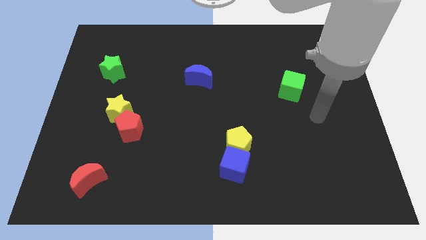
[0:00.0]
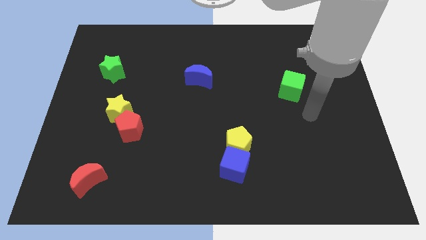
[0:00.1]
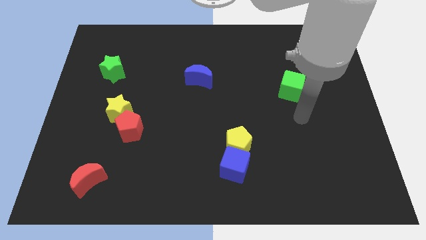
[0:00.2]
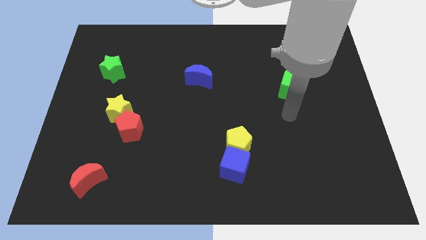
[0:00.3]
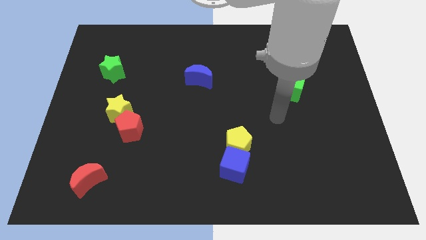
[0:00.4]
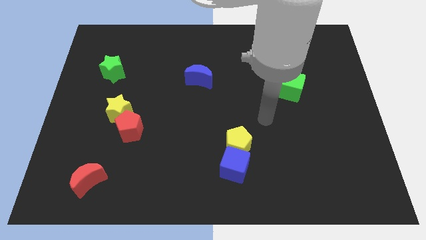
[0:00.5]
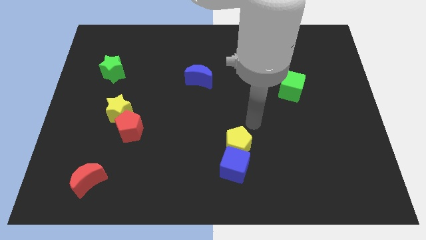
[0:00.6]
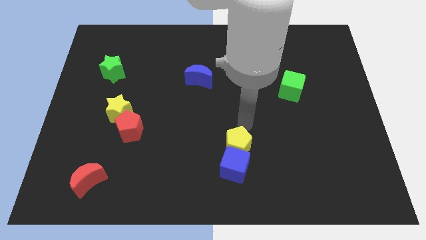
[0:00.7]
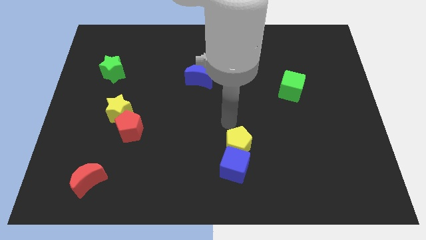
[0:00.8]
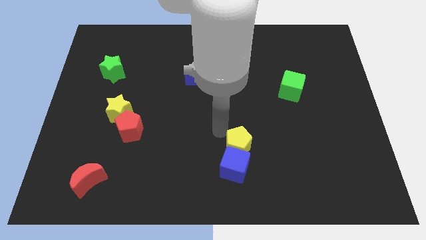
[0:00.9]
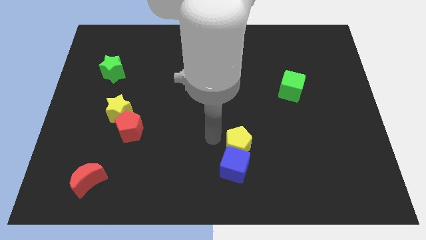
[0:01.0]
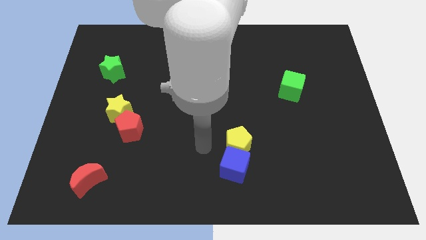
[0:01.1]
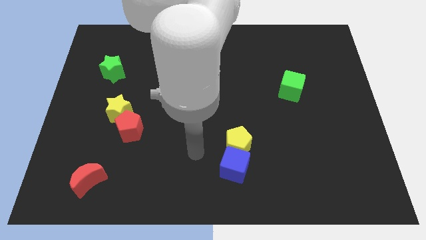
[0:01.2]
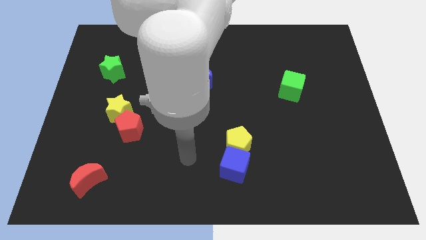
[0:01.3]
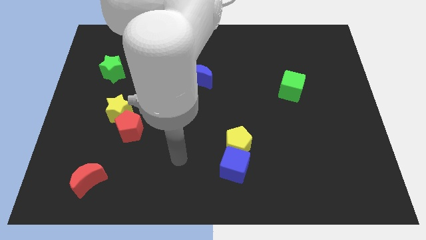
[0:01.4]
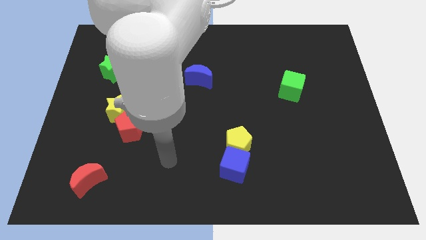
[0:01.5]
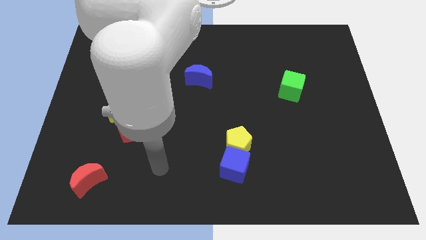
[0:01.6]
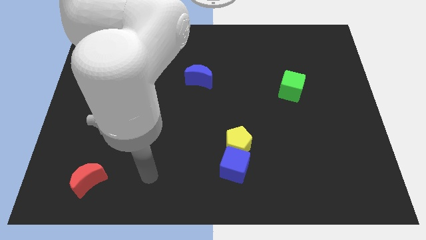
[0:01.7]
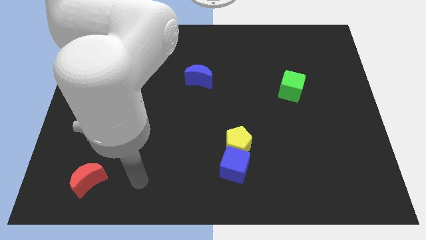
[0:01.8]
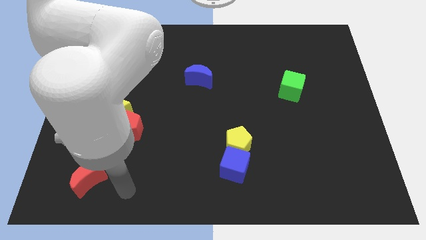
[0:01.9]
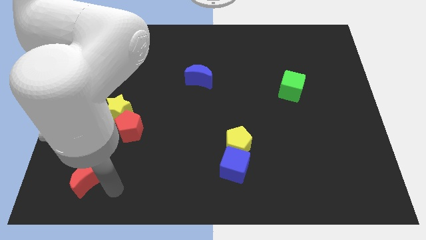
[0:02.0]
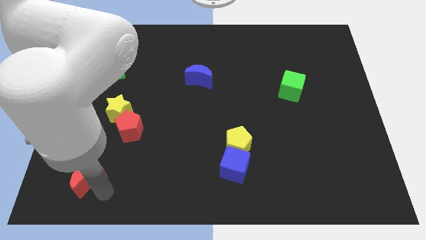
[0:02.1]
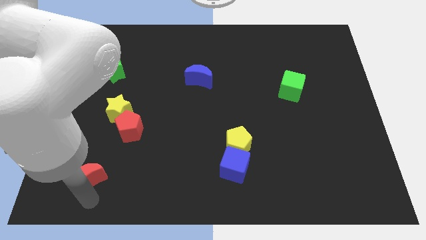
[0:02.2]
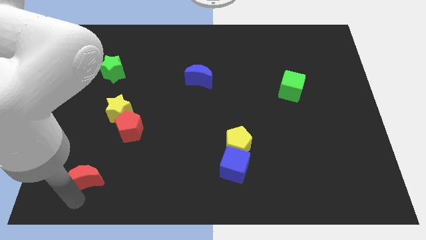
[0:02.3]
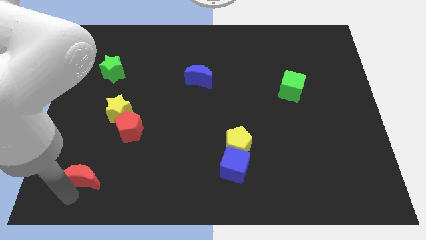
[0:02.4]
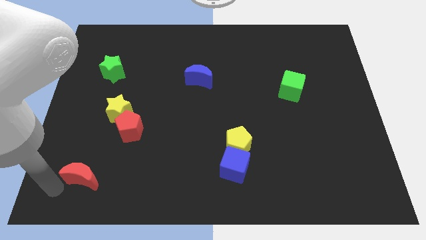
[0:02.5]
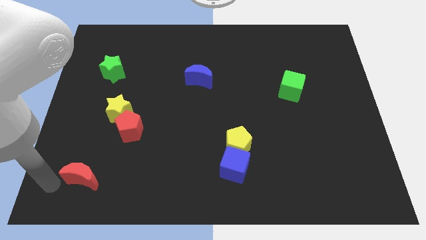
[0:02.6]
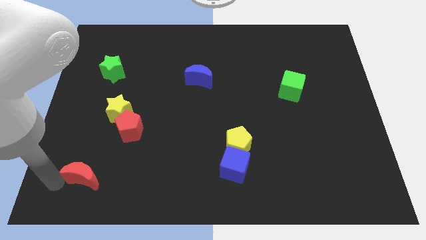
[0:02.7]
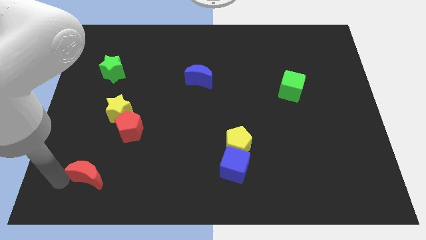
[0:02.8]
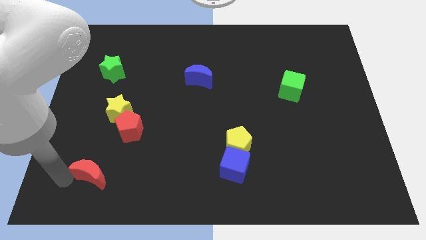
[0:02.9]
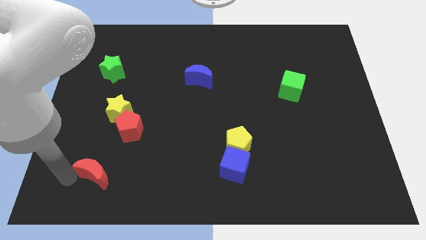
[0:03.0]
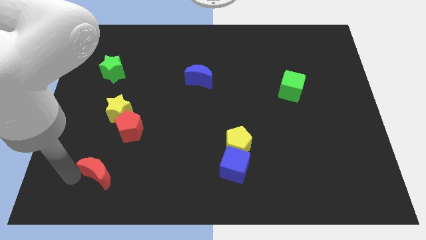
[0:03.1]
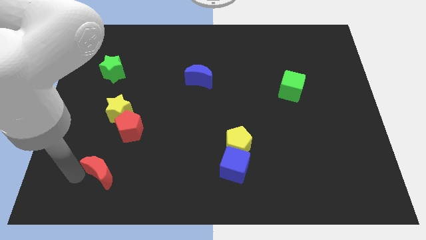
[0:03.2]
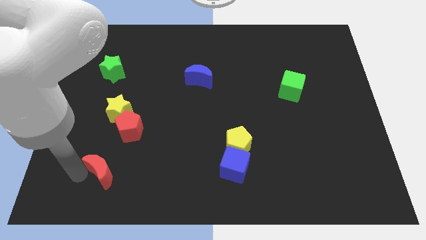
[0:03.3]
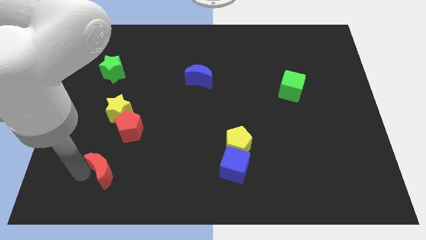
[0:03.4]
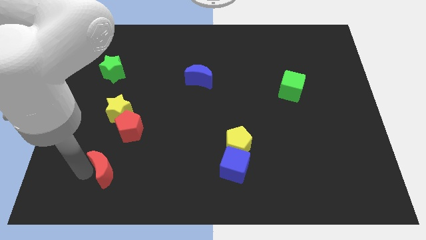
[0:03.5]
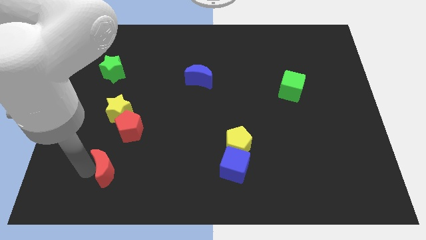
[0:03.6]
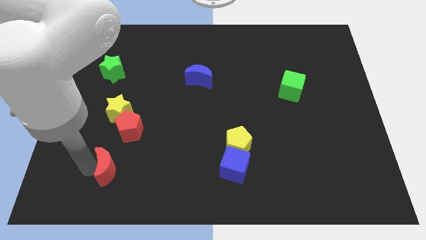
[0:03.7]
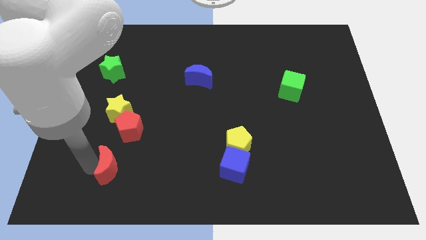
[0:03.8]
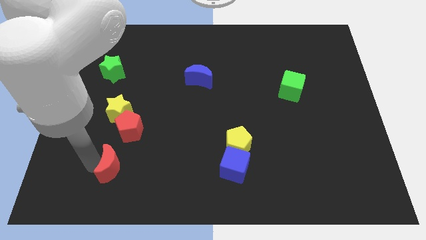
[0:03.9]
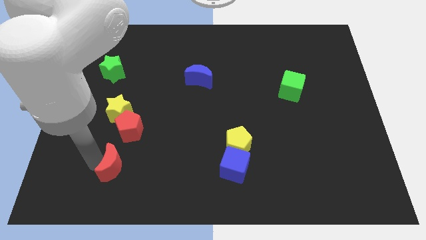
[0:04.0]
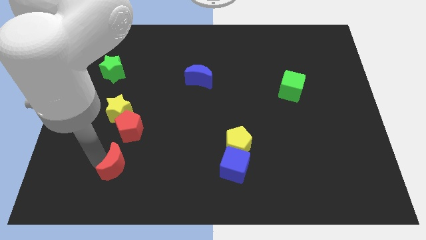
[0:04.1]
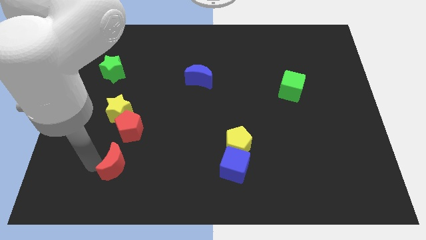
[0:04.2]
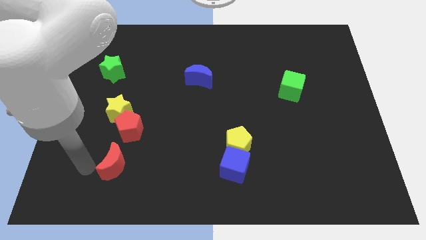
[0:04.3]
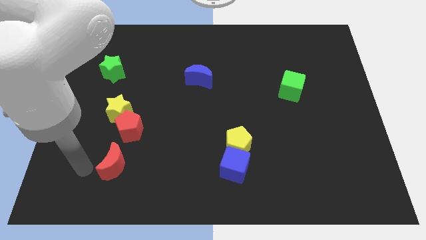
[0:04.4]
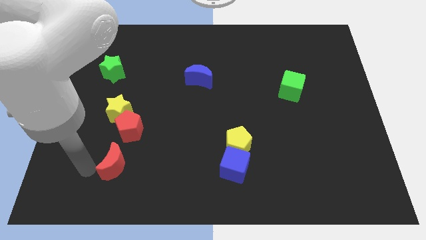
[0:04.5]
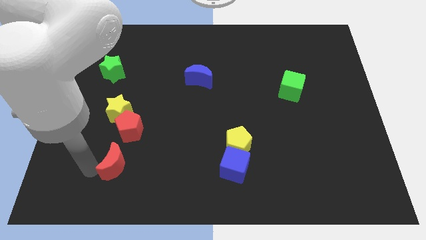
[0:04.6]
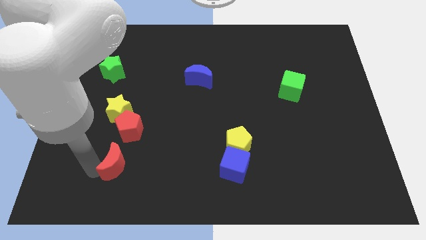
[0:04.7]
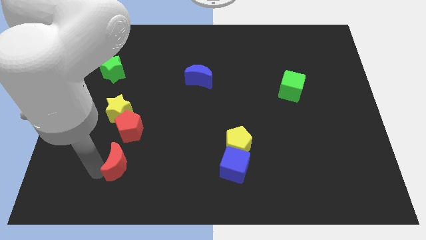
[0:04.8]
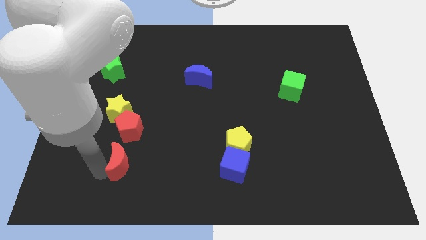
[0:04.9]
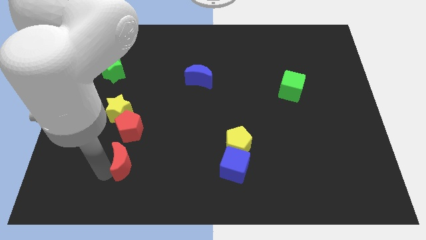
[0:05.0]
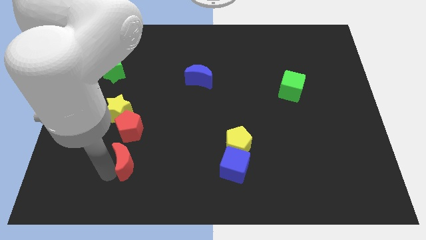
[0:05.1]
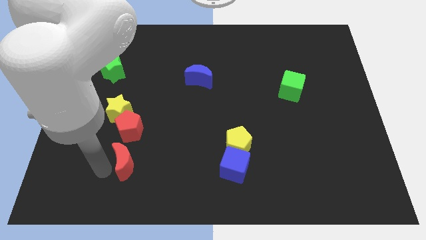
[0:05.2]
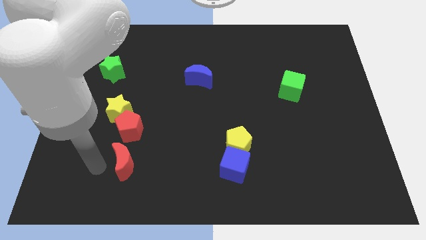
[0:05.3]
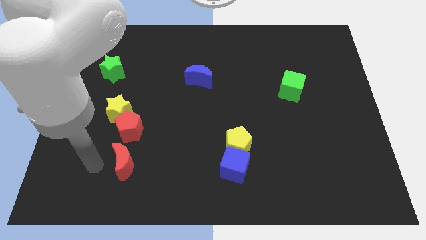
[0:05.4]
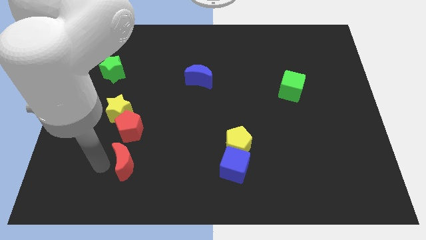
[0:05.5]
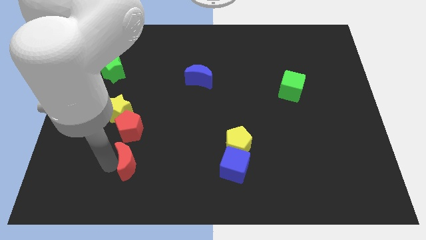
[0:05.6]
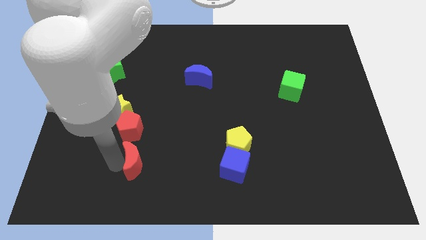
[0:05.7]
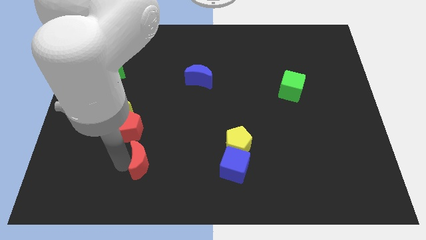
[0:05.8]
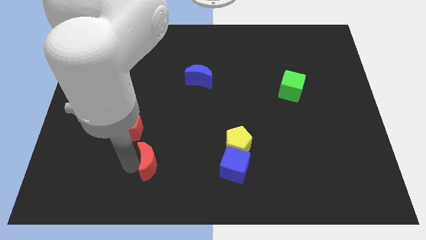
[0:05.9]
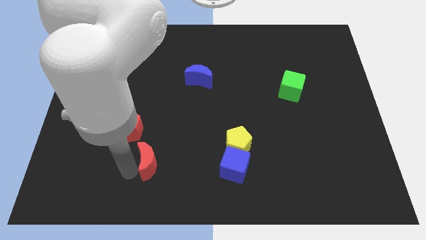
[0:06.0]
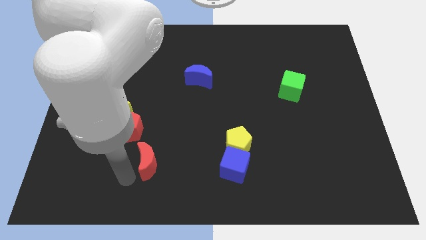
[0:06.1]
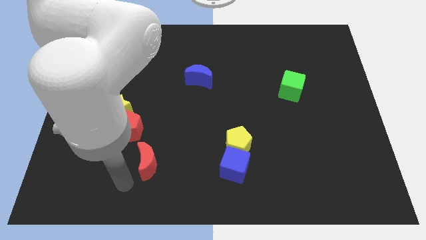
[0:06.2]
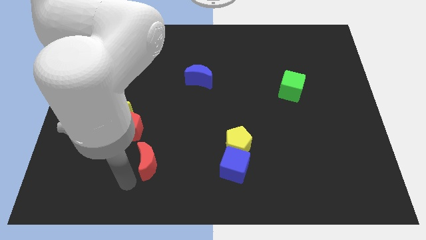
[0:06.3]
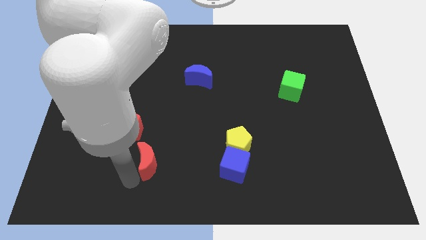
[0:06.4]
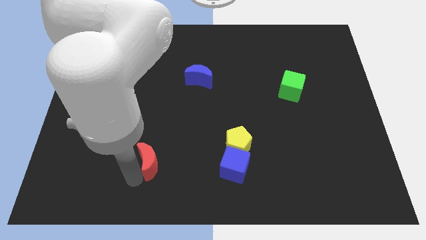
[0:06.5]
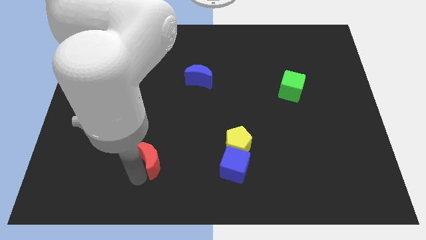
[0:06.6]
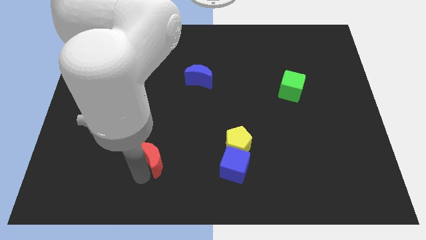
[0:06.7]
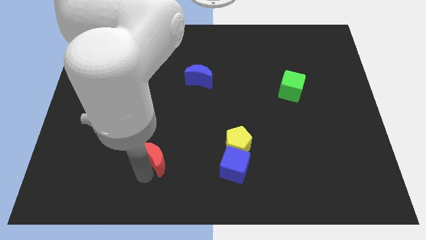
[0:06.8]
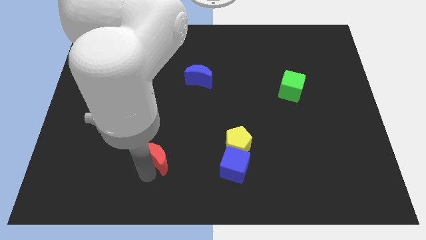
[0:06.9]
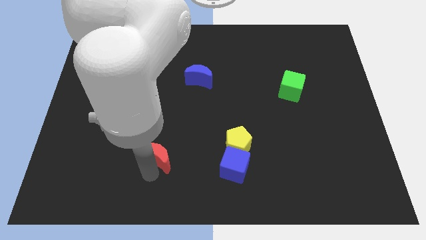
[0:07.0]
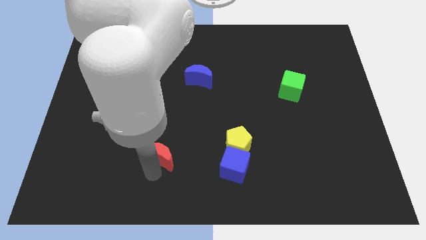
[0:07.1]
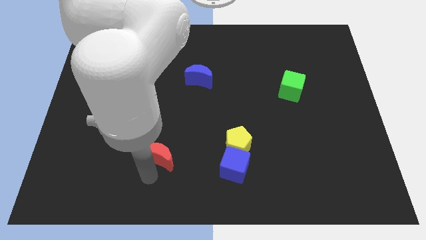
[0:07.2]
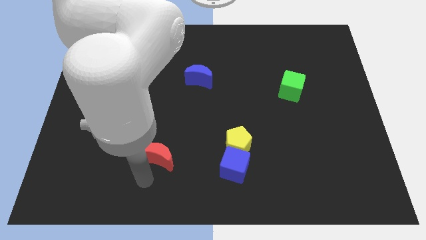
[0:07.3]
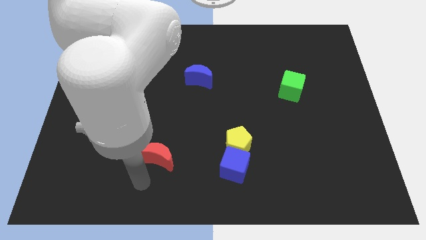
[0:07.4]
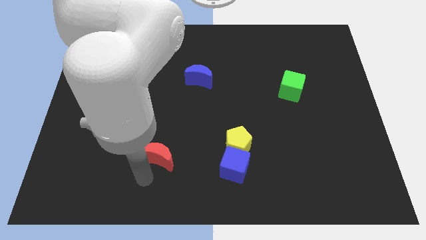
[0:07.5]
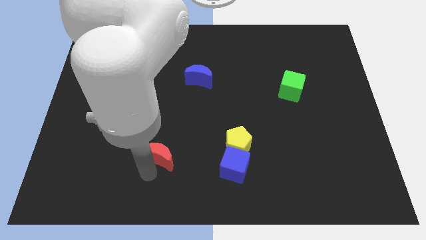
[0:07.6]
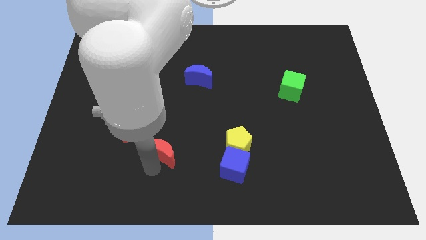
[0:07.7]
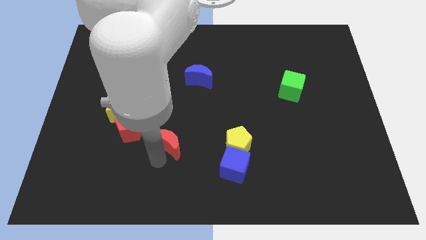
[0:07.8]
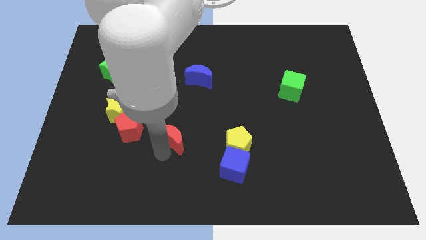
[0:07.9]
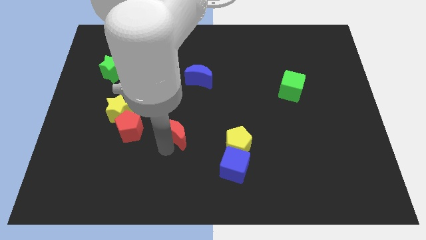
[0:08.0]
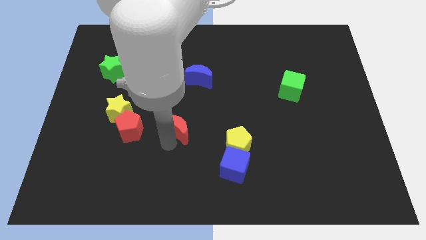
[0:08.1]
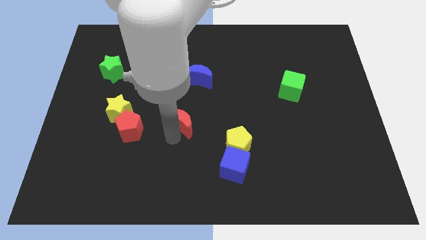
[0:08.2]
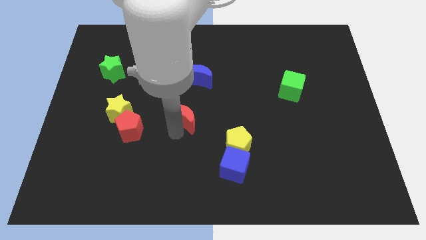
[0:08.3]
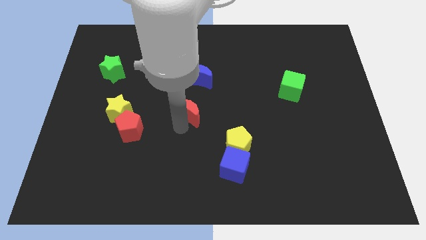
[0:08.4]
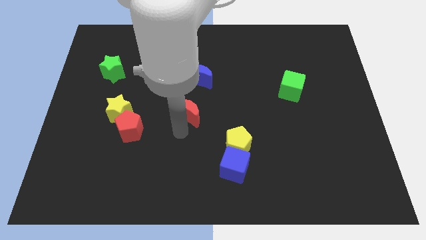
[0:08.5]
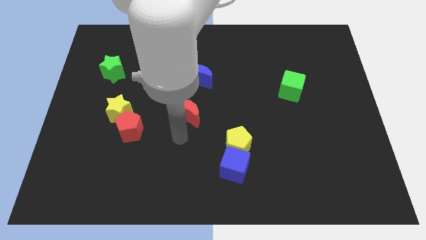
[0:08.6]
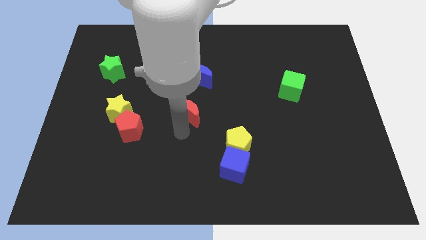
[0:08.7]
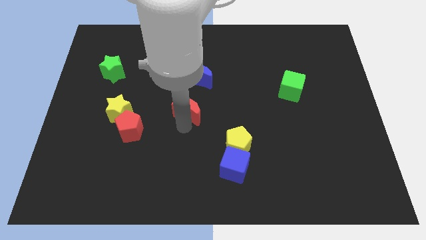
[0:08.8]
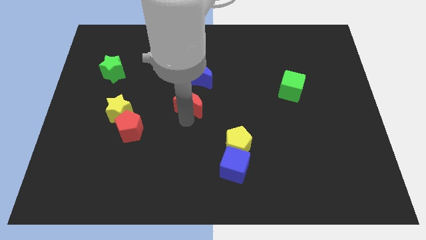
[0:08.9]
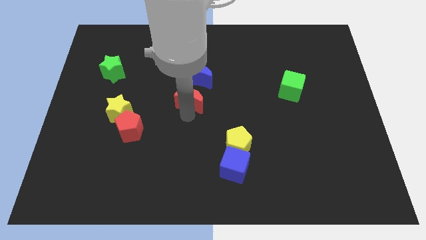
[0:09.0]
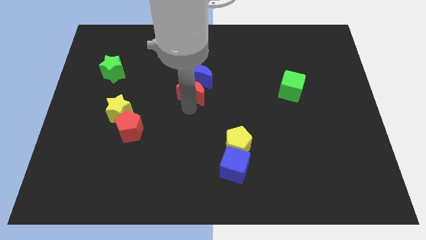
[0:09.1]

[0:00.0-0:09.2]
put the red moon next to the blue moon
